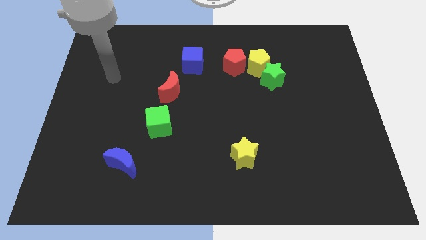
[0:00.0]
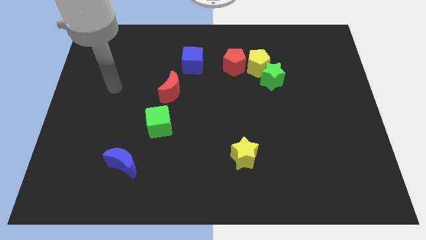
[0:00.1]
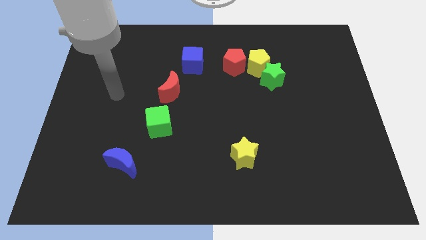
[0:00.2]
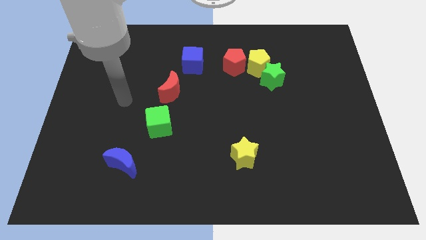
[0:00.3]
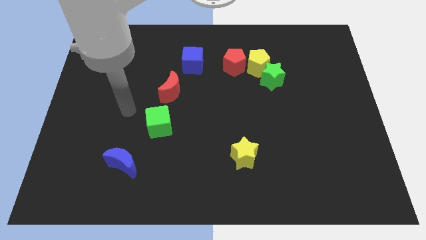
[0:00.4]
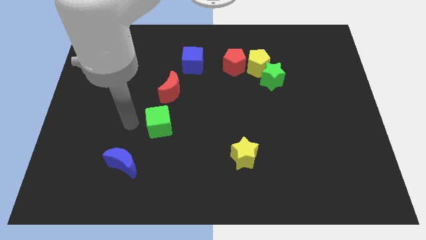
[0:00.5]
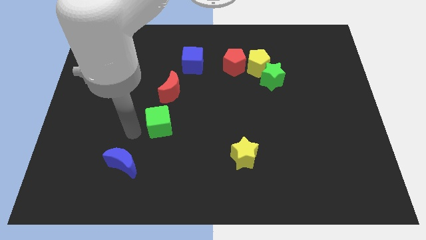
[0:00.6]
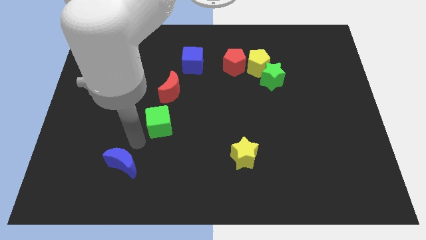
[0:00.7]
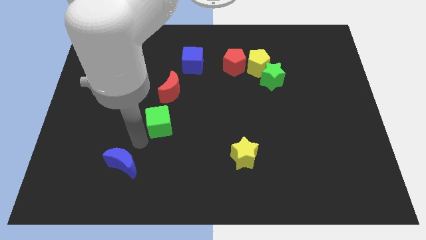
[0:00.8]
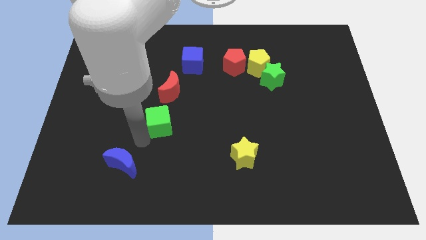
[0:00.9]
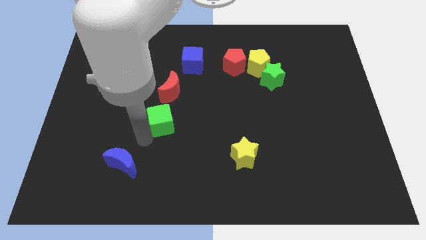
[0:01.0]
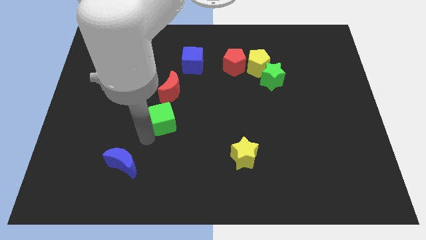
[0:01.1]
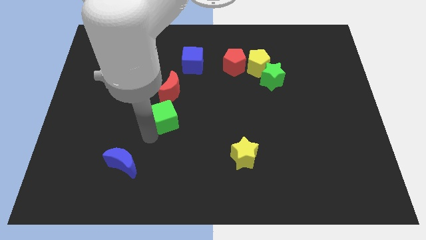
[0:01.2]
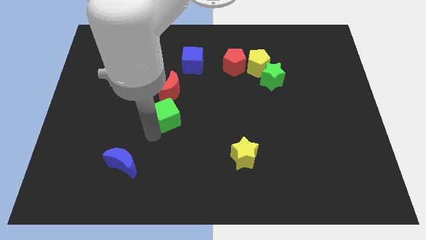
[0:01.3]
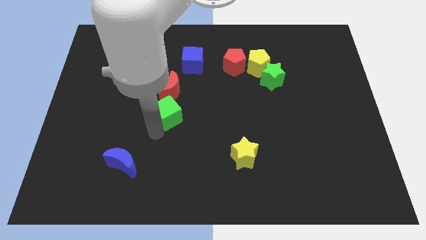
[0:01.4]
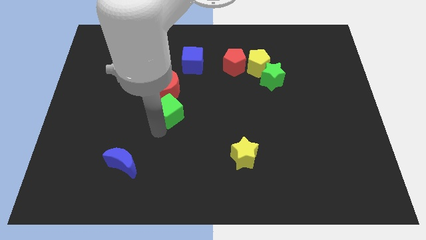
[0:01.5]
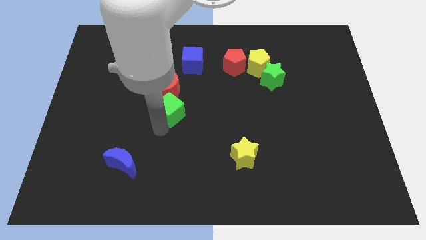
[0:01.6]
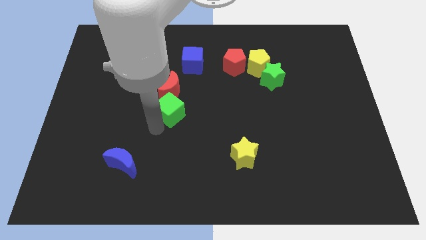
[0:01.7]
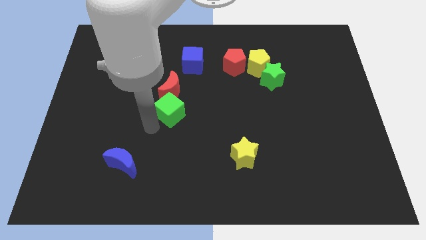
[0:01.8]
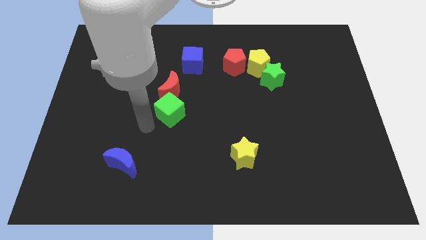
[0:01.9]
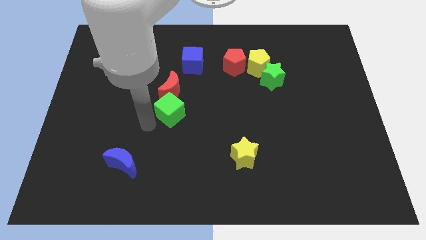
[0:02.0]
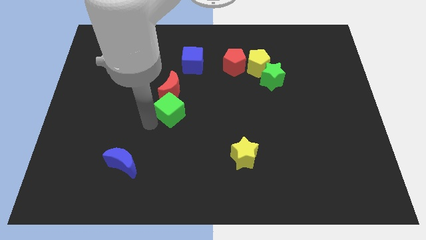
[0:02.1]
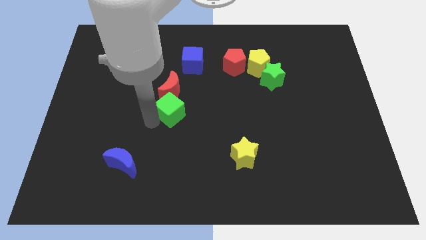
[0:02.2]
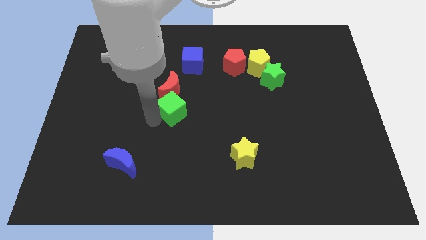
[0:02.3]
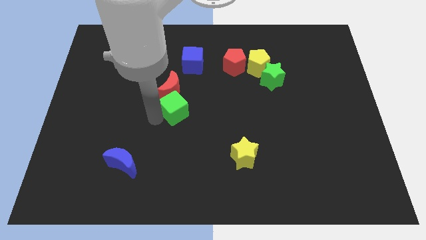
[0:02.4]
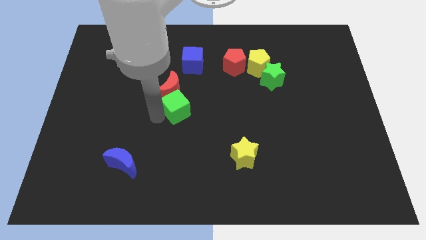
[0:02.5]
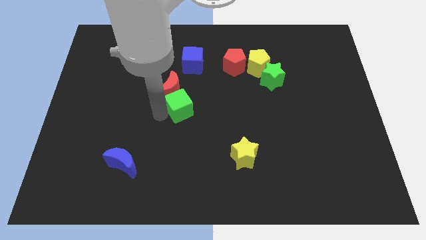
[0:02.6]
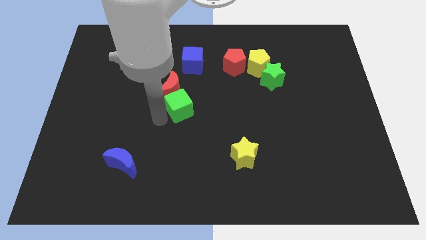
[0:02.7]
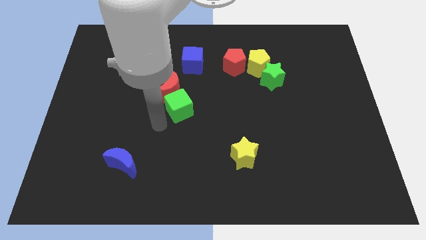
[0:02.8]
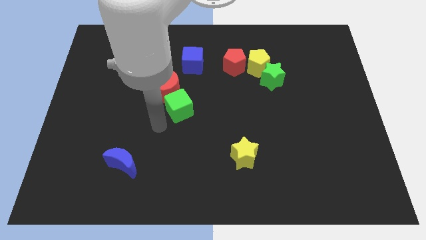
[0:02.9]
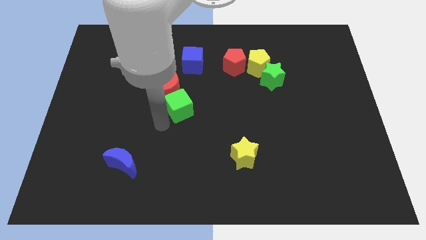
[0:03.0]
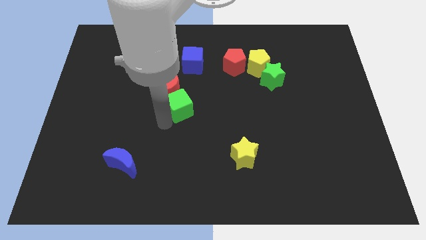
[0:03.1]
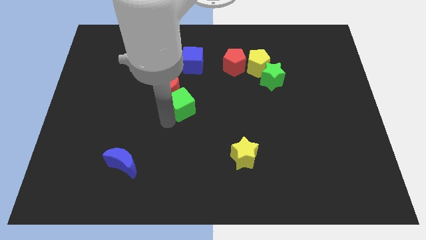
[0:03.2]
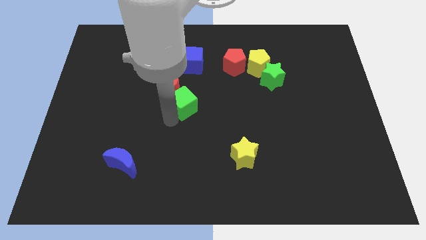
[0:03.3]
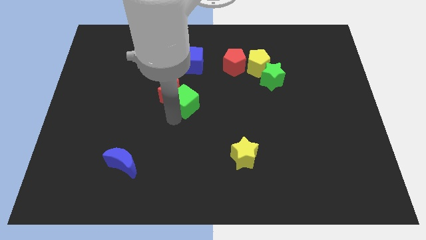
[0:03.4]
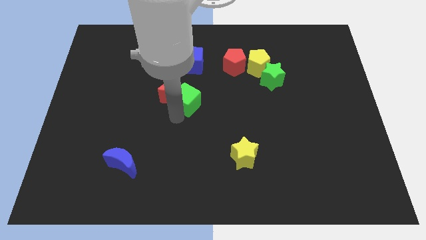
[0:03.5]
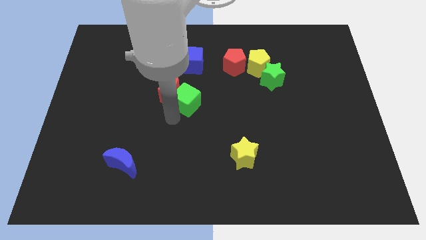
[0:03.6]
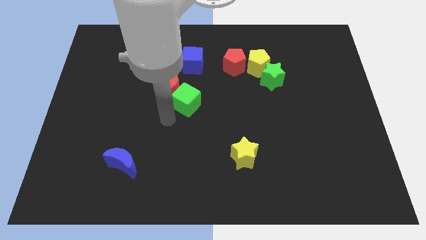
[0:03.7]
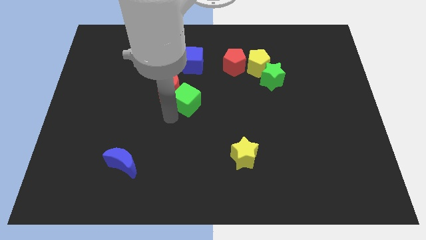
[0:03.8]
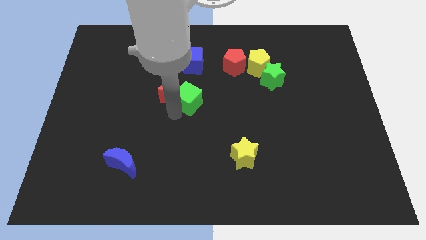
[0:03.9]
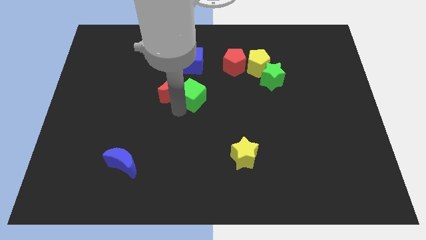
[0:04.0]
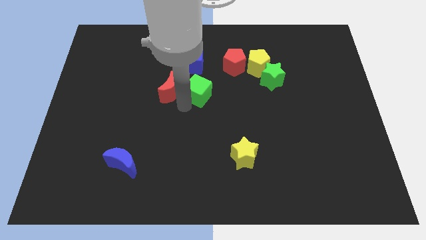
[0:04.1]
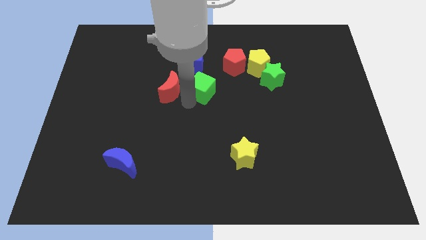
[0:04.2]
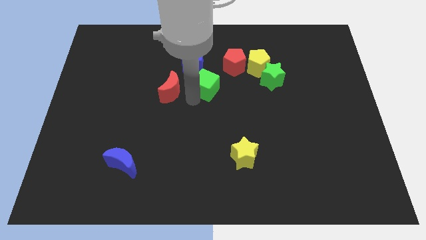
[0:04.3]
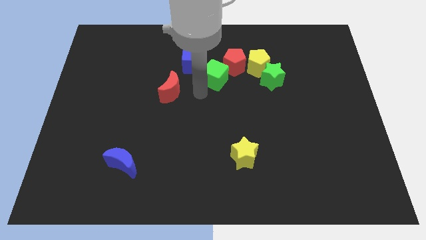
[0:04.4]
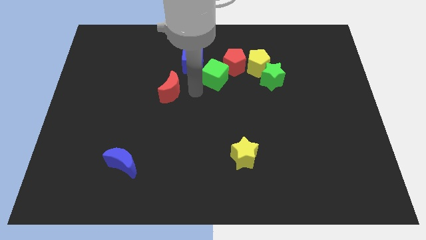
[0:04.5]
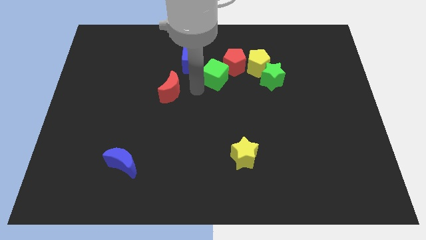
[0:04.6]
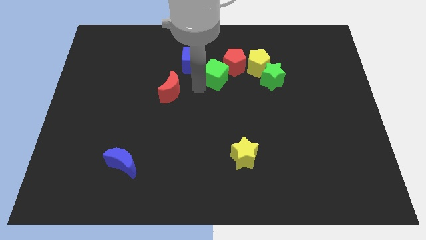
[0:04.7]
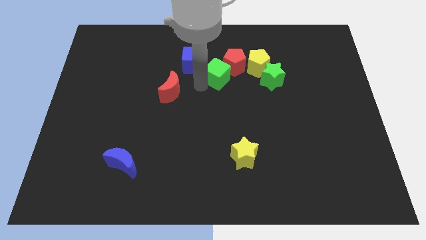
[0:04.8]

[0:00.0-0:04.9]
put the green cube to the red pentagon

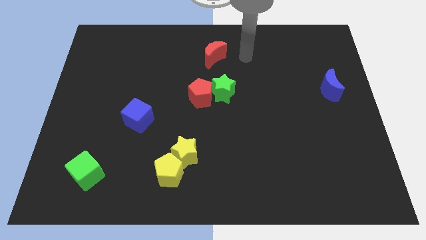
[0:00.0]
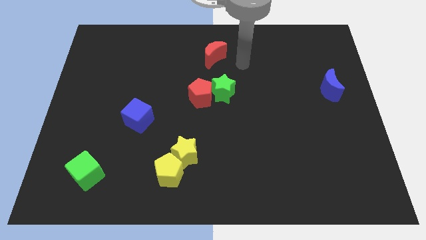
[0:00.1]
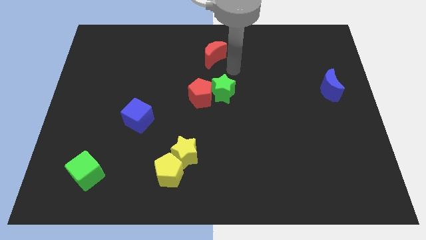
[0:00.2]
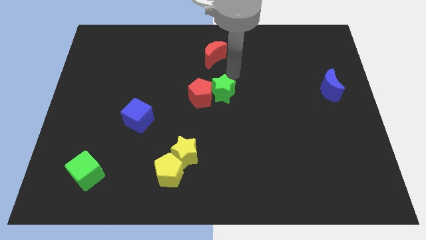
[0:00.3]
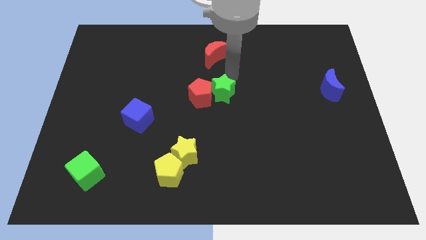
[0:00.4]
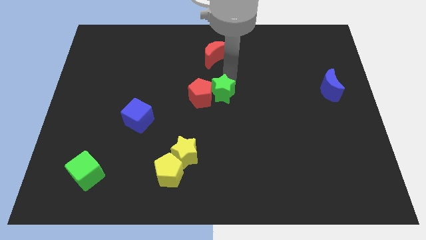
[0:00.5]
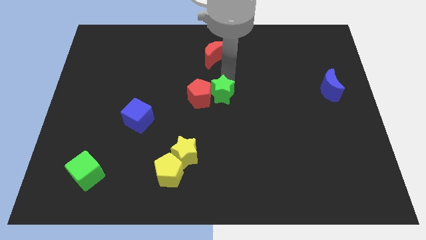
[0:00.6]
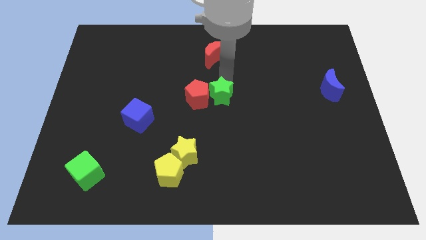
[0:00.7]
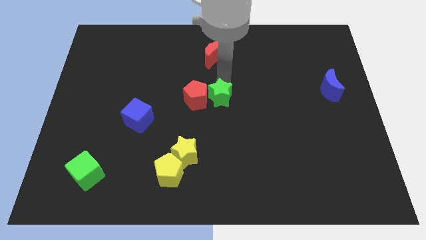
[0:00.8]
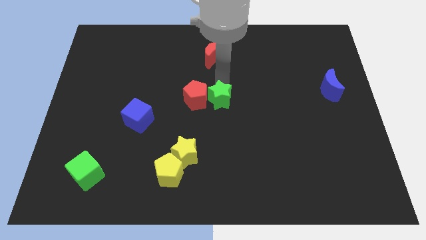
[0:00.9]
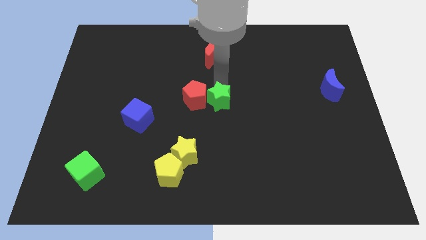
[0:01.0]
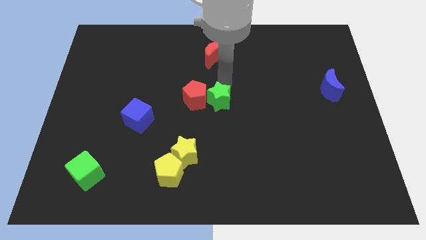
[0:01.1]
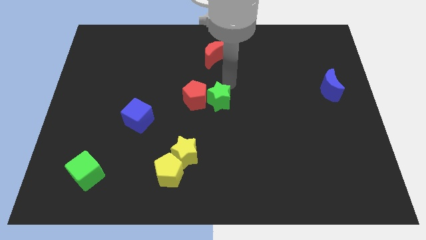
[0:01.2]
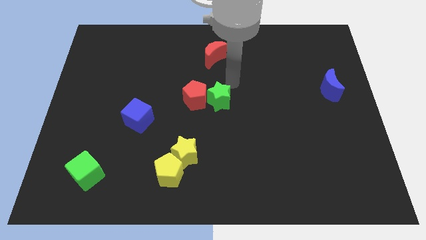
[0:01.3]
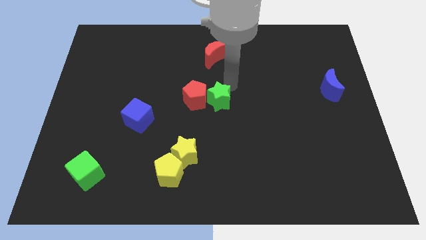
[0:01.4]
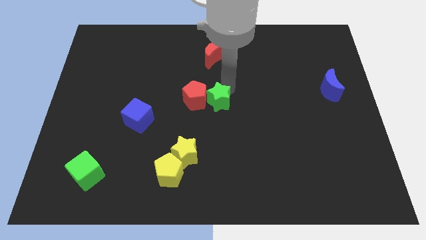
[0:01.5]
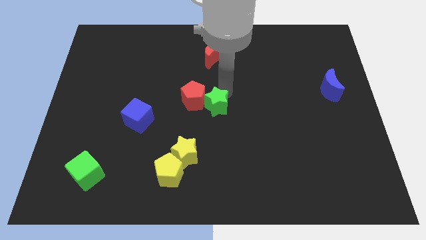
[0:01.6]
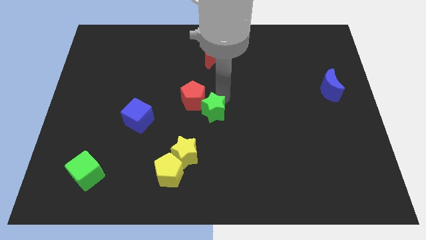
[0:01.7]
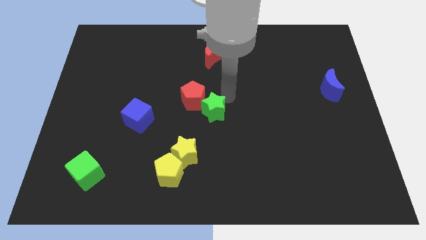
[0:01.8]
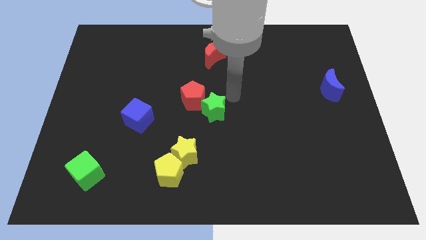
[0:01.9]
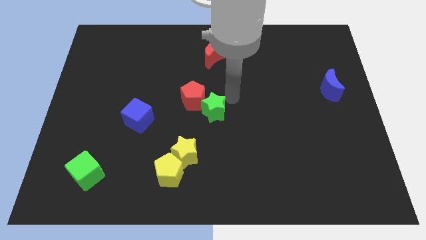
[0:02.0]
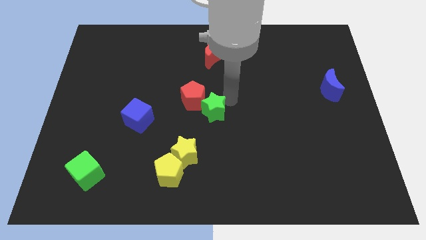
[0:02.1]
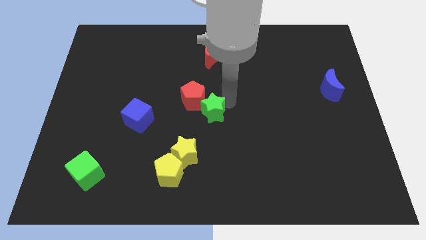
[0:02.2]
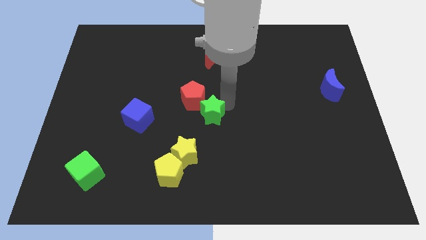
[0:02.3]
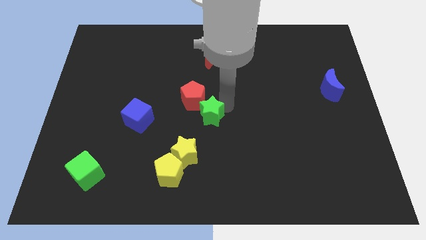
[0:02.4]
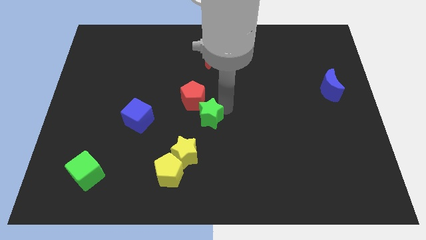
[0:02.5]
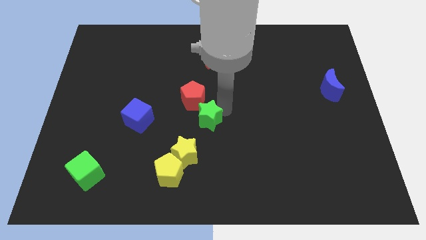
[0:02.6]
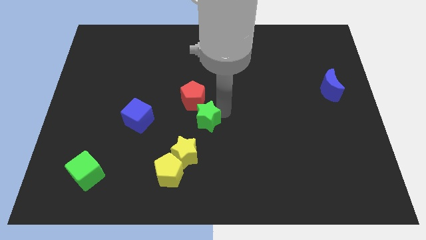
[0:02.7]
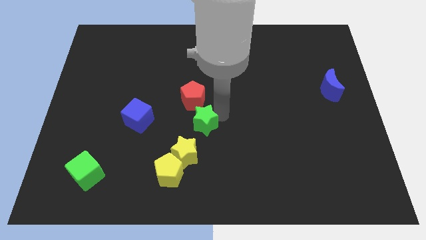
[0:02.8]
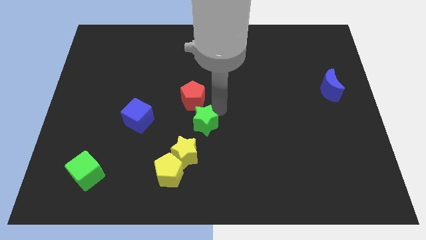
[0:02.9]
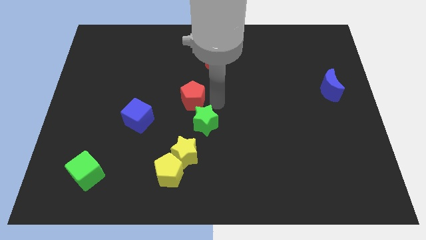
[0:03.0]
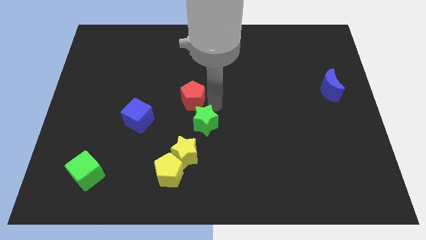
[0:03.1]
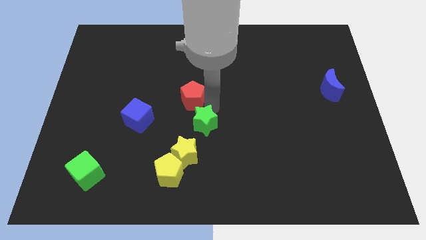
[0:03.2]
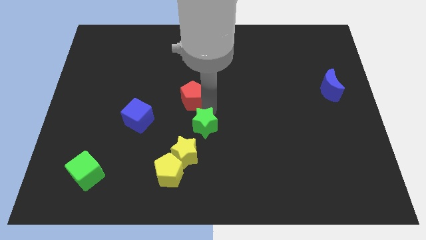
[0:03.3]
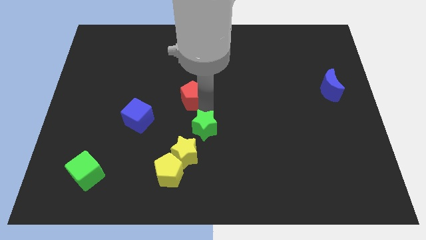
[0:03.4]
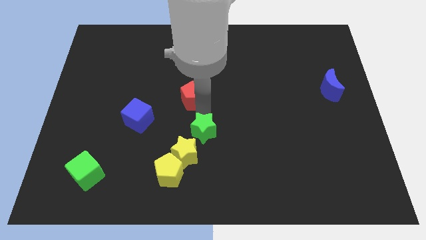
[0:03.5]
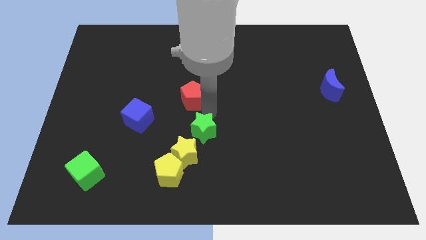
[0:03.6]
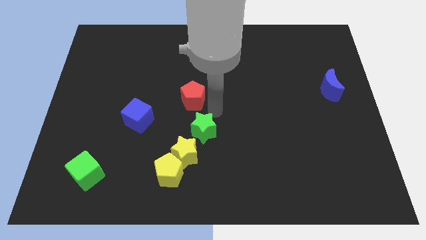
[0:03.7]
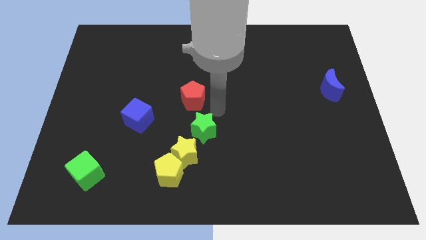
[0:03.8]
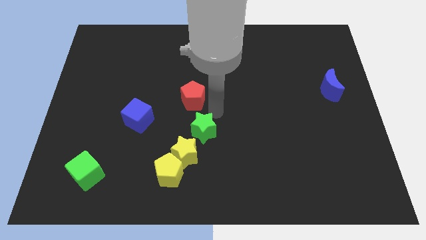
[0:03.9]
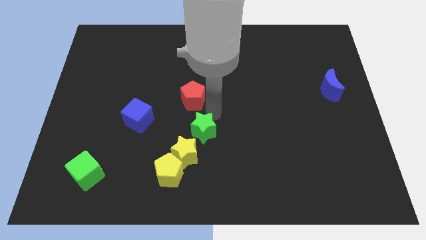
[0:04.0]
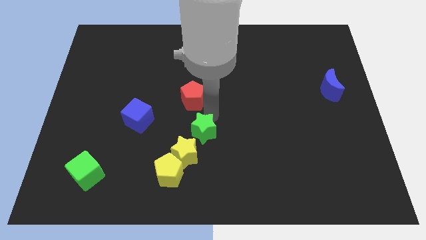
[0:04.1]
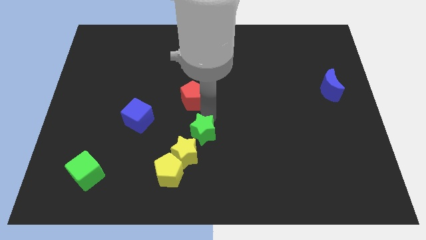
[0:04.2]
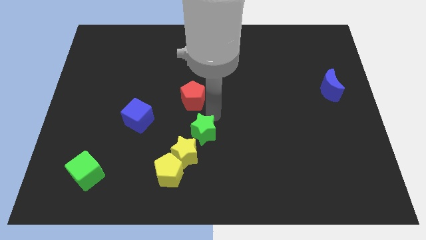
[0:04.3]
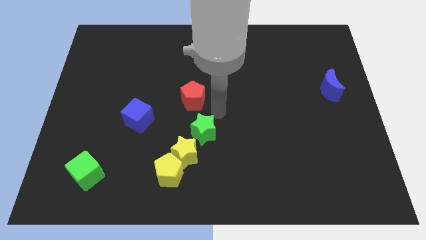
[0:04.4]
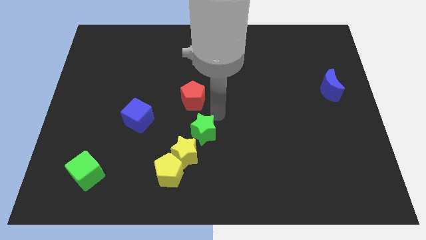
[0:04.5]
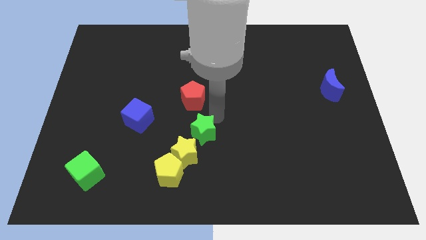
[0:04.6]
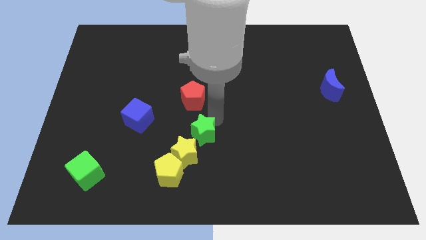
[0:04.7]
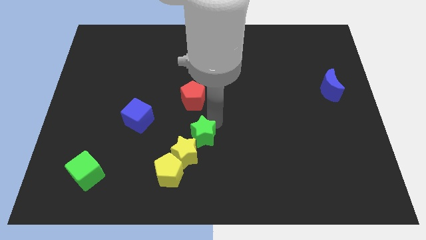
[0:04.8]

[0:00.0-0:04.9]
slide the green star next to the yellow star
